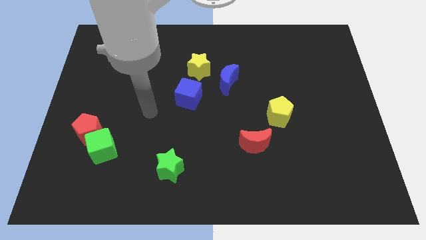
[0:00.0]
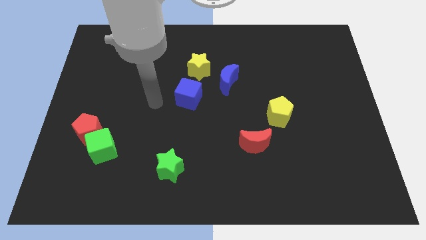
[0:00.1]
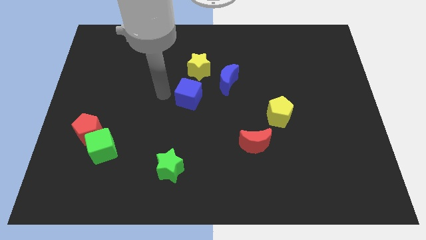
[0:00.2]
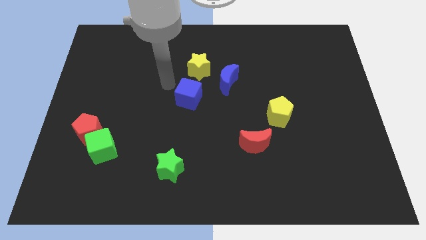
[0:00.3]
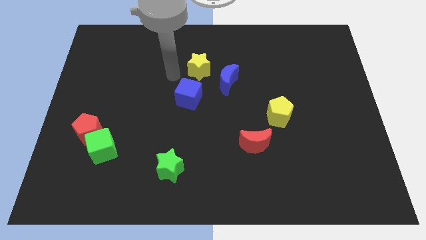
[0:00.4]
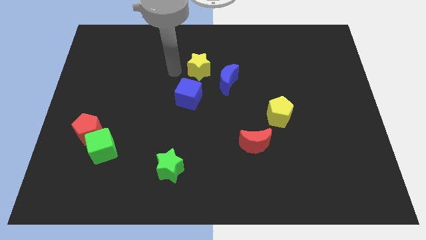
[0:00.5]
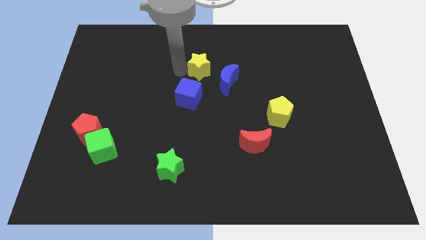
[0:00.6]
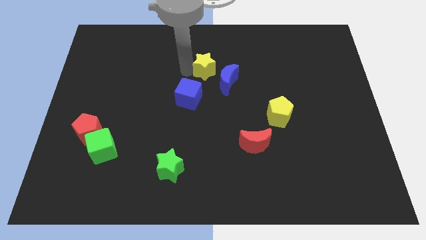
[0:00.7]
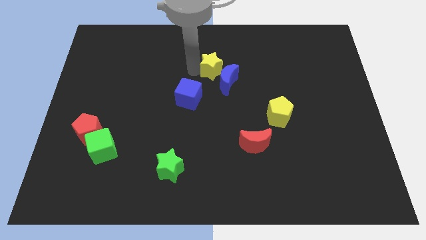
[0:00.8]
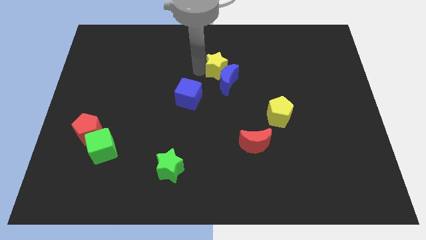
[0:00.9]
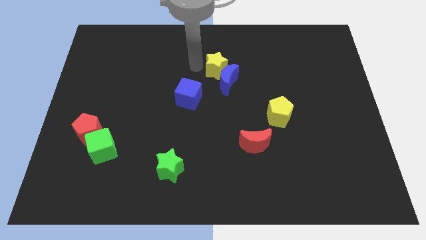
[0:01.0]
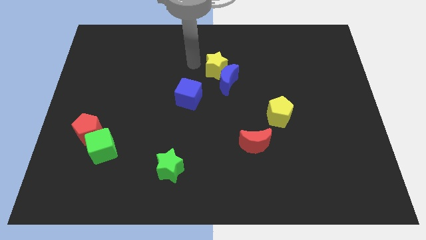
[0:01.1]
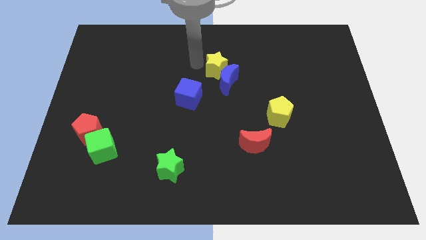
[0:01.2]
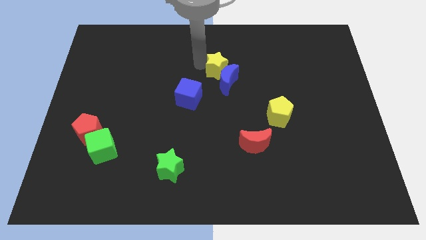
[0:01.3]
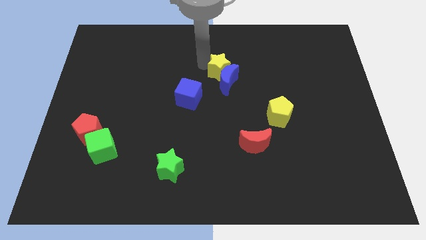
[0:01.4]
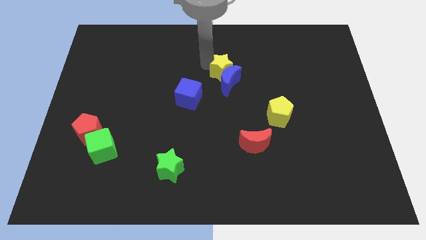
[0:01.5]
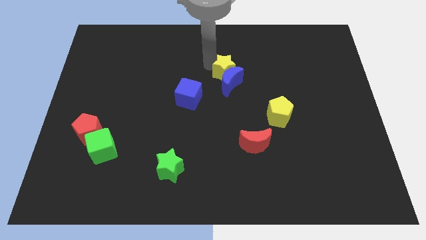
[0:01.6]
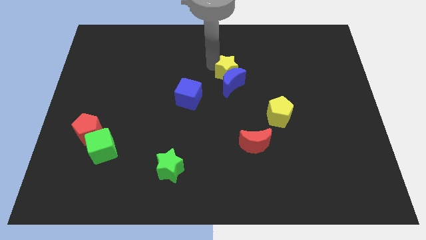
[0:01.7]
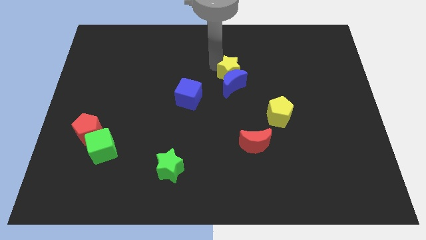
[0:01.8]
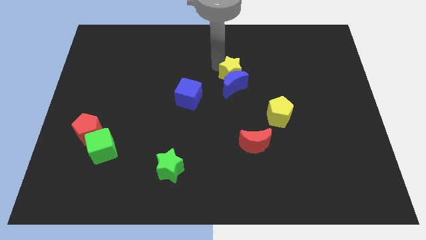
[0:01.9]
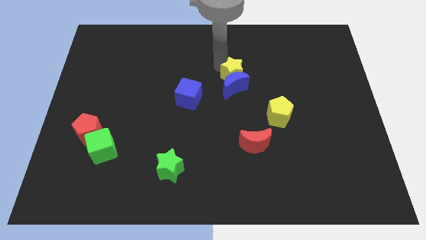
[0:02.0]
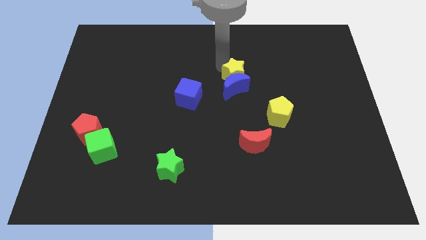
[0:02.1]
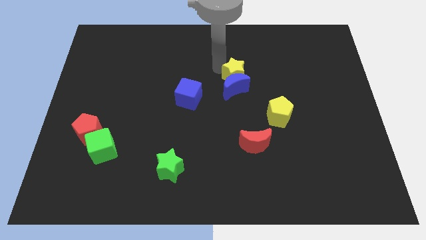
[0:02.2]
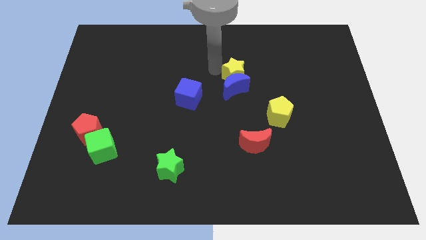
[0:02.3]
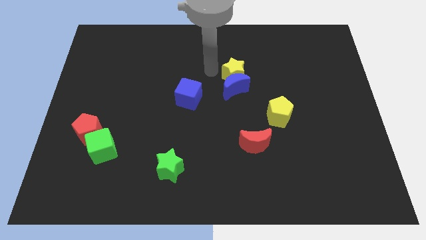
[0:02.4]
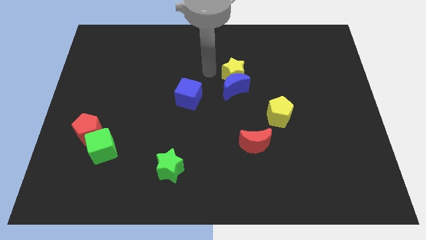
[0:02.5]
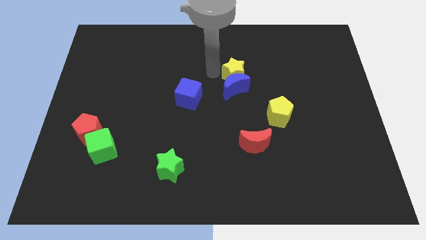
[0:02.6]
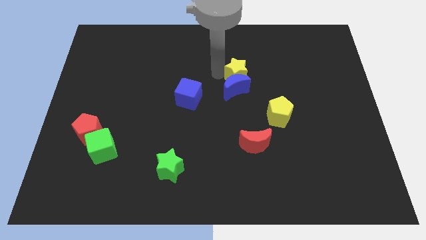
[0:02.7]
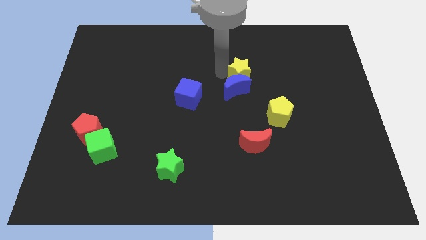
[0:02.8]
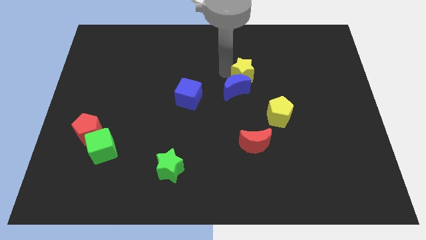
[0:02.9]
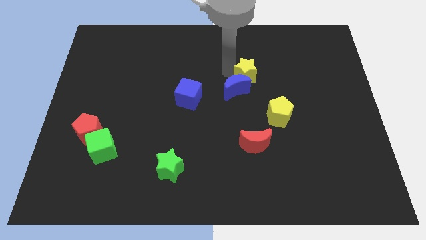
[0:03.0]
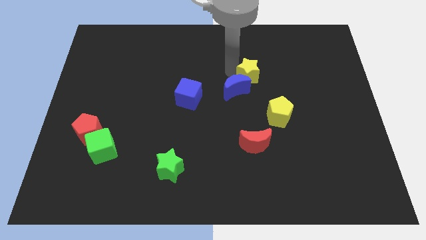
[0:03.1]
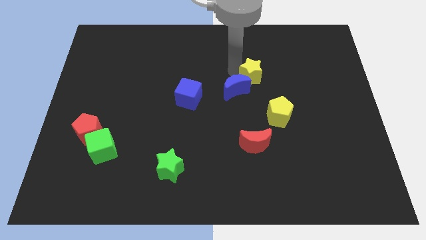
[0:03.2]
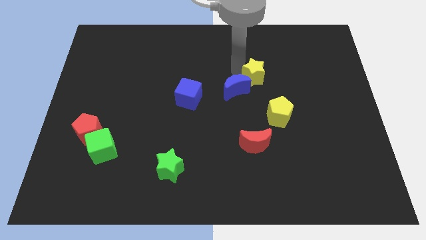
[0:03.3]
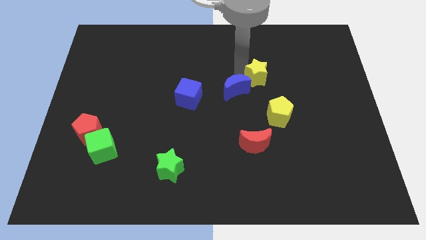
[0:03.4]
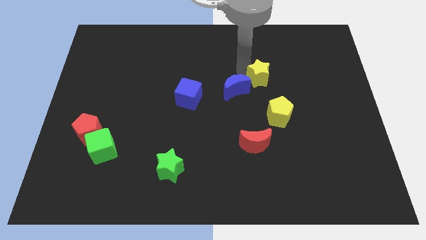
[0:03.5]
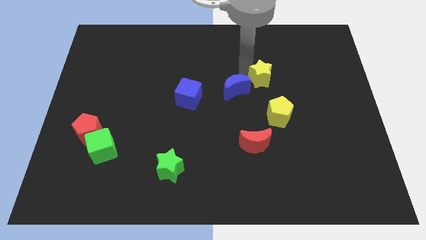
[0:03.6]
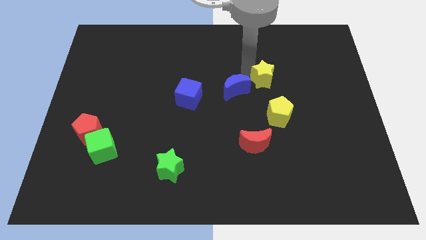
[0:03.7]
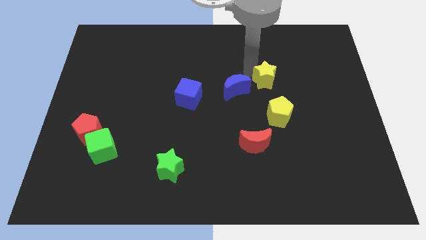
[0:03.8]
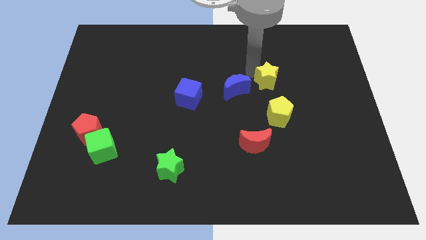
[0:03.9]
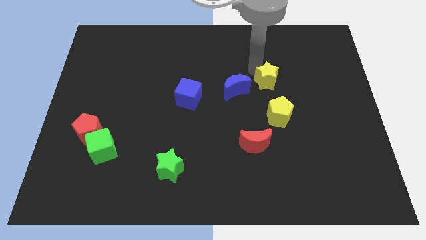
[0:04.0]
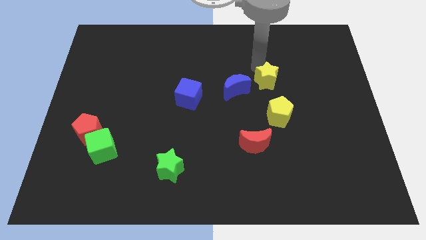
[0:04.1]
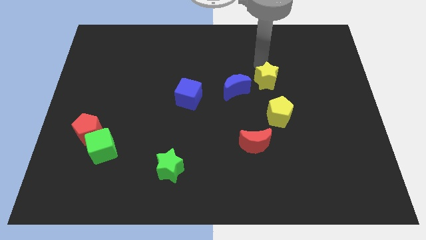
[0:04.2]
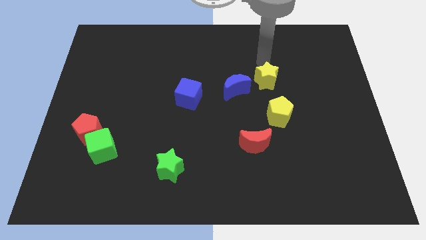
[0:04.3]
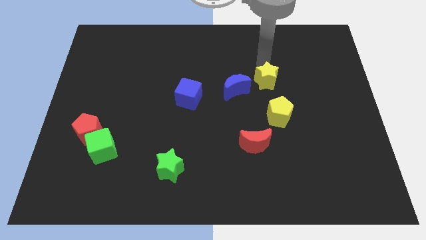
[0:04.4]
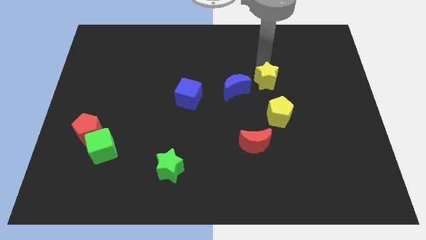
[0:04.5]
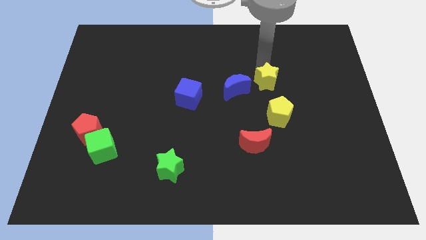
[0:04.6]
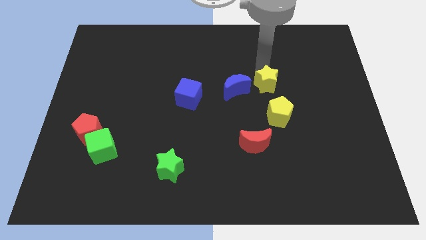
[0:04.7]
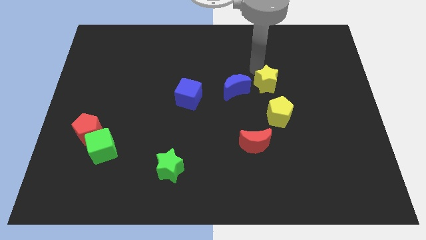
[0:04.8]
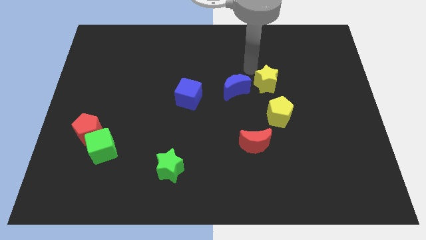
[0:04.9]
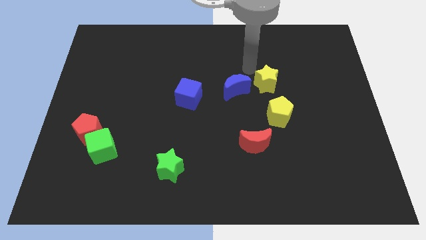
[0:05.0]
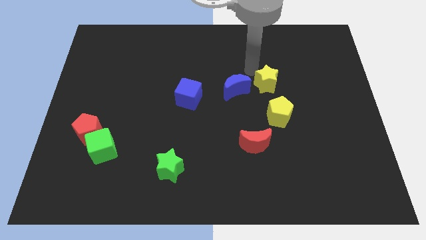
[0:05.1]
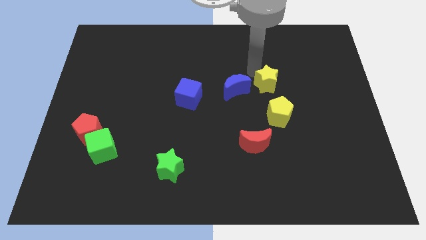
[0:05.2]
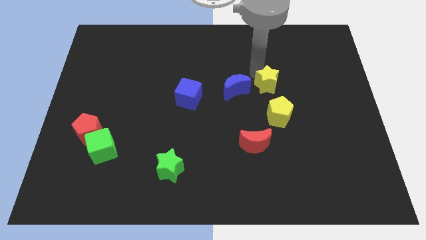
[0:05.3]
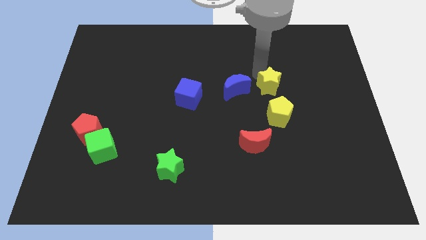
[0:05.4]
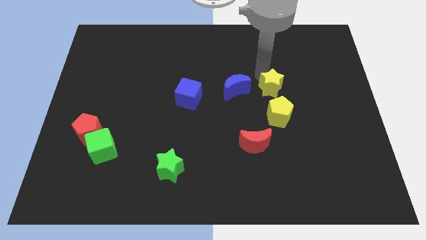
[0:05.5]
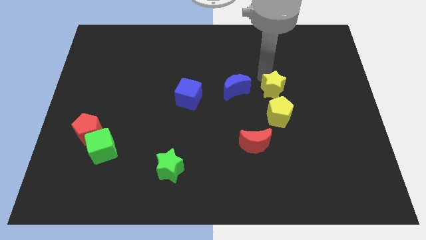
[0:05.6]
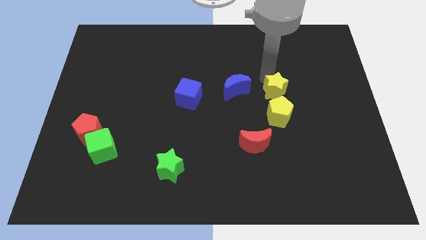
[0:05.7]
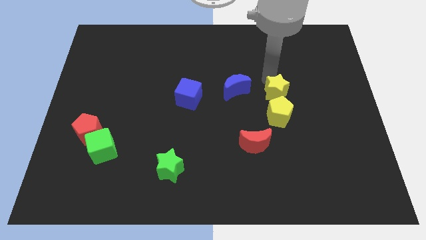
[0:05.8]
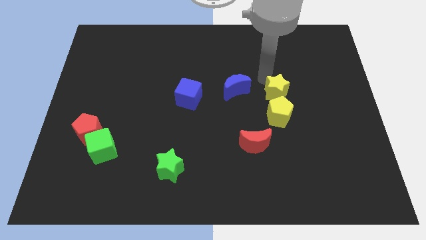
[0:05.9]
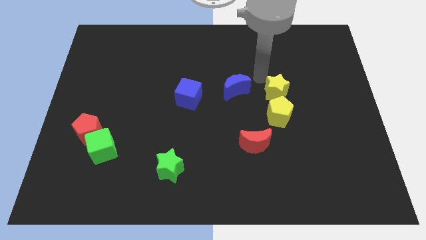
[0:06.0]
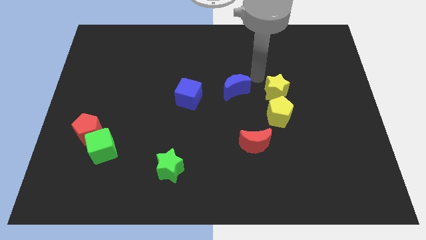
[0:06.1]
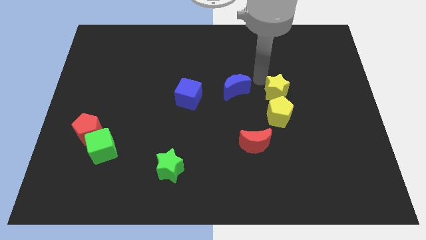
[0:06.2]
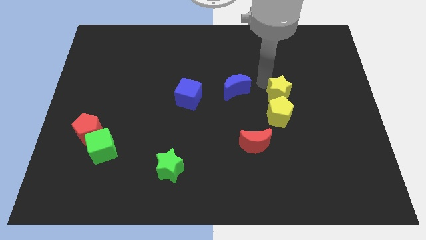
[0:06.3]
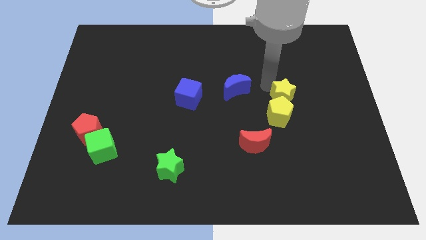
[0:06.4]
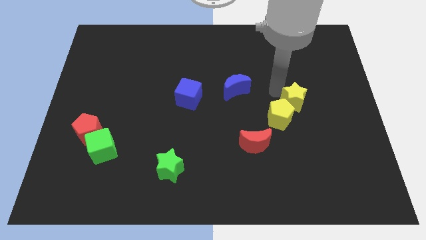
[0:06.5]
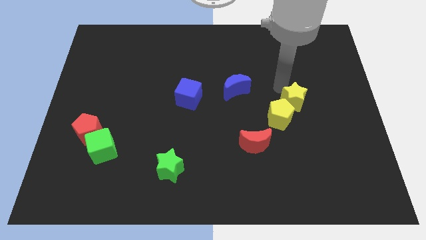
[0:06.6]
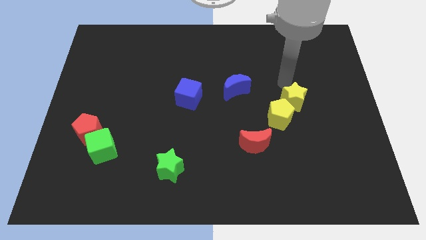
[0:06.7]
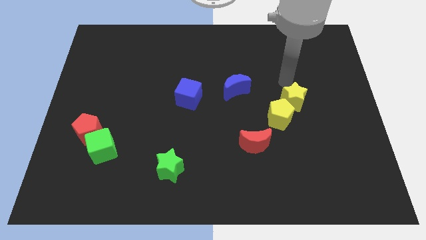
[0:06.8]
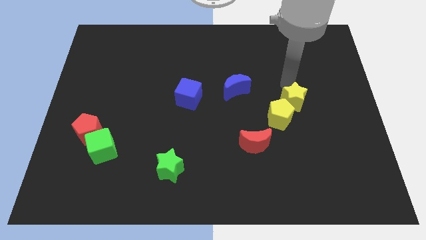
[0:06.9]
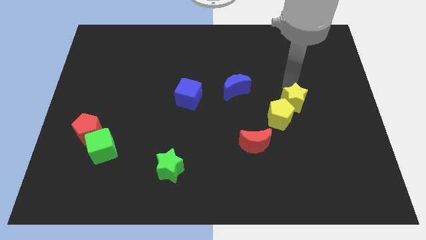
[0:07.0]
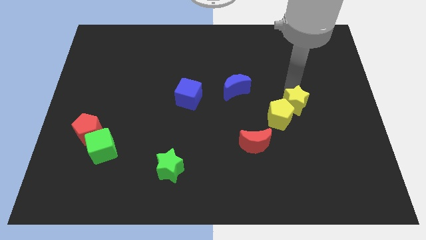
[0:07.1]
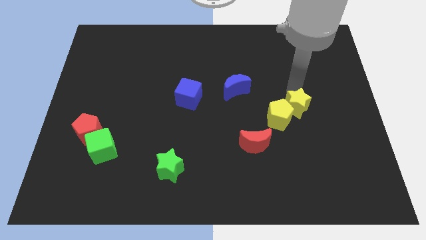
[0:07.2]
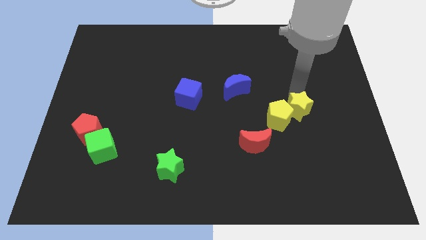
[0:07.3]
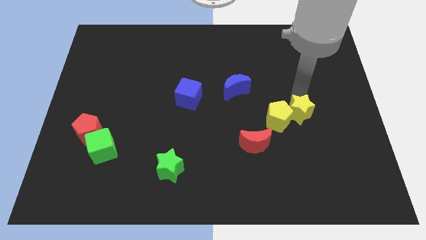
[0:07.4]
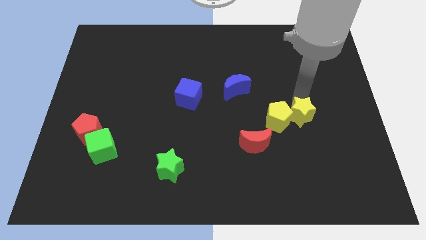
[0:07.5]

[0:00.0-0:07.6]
slide the yellow star to the bottom right side of the yellow pentagon
